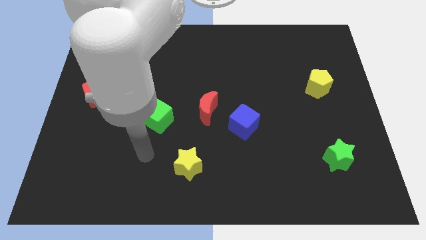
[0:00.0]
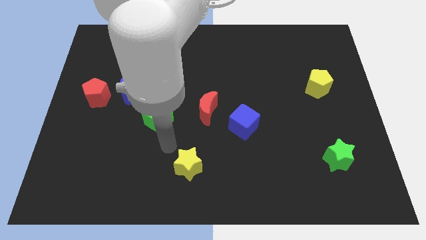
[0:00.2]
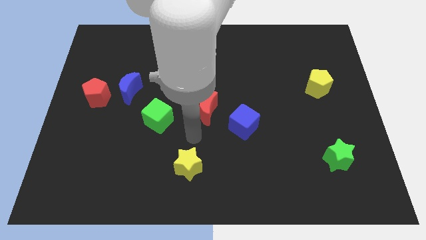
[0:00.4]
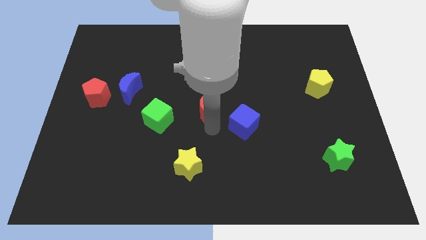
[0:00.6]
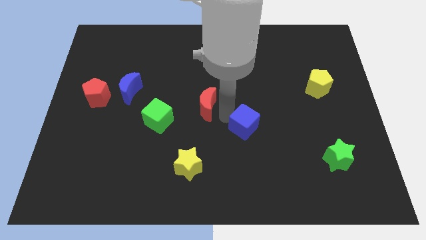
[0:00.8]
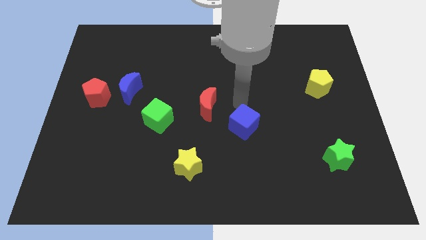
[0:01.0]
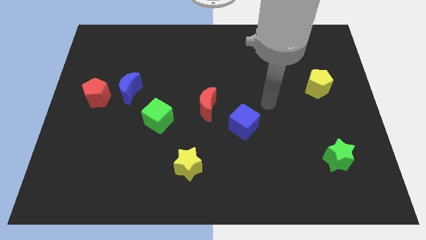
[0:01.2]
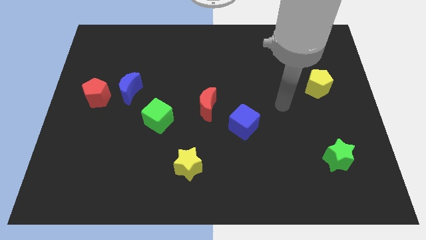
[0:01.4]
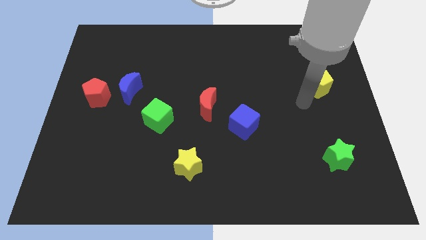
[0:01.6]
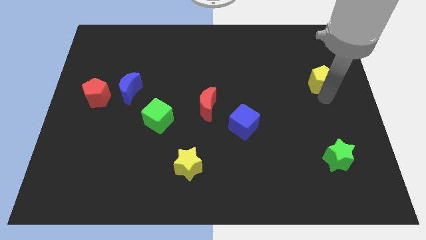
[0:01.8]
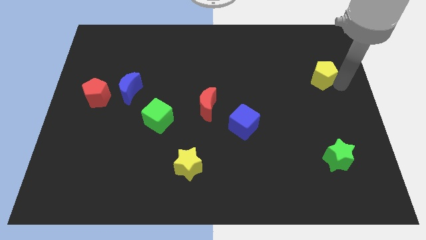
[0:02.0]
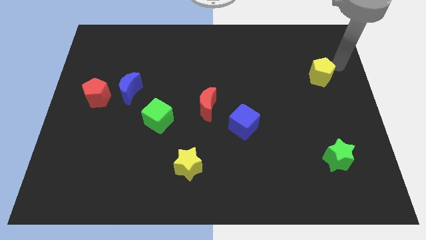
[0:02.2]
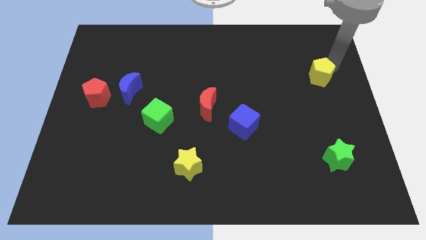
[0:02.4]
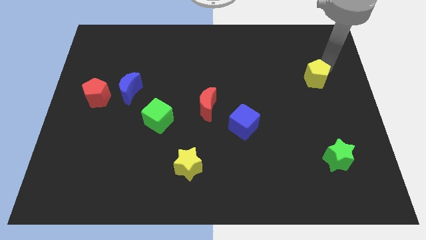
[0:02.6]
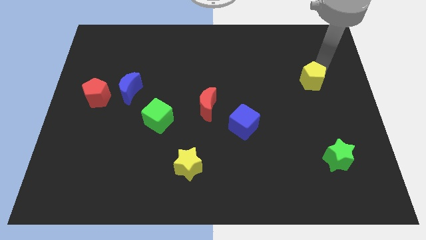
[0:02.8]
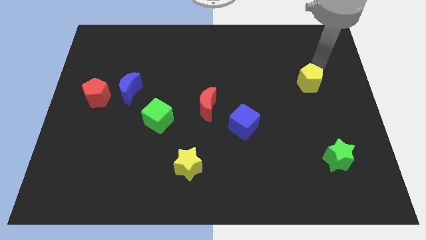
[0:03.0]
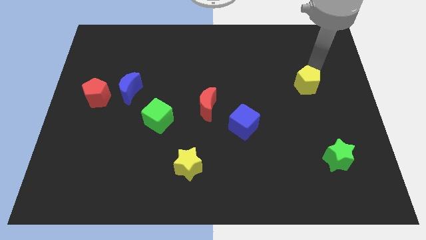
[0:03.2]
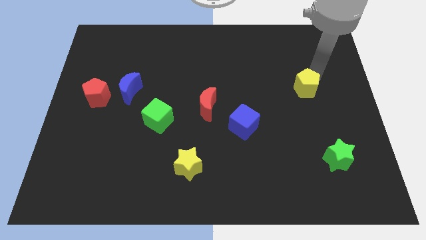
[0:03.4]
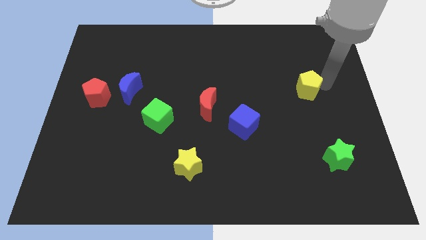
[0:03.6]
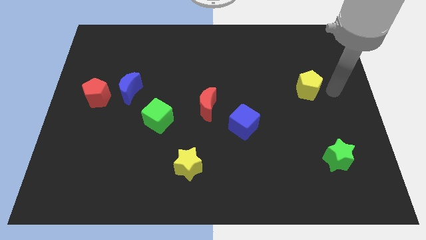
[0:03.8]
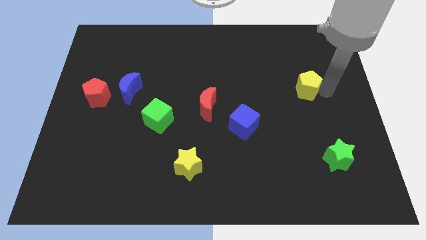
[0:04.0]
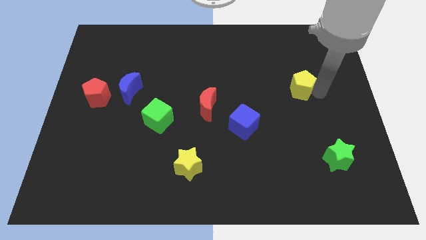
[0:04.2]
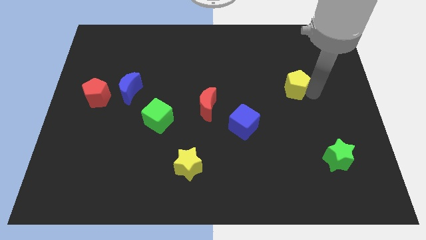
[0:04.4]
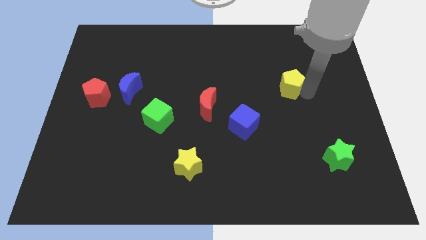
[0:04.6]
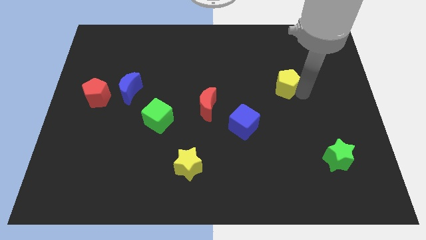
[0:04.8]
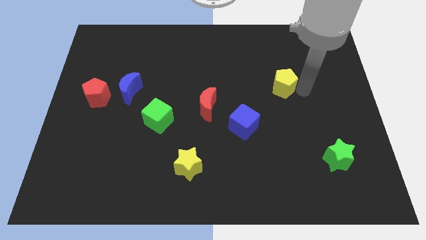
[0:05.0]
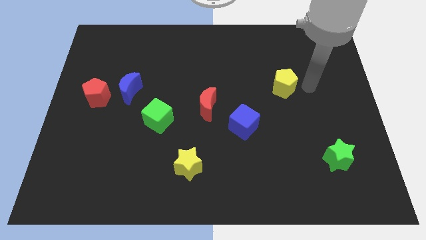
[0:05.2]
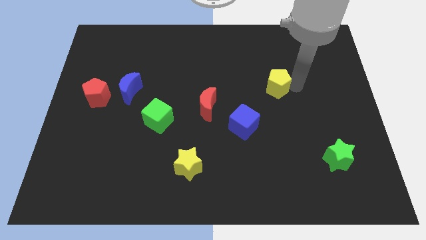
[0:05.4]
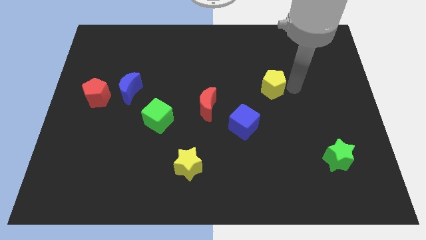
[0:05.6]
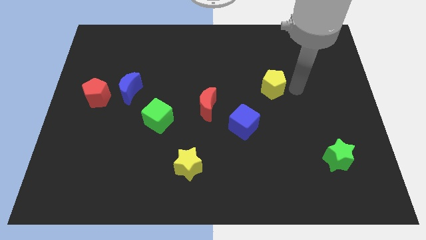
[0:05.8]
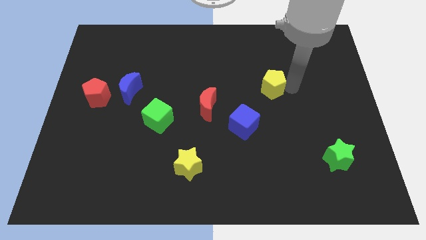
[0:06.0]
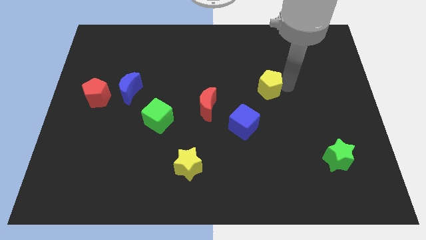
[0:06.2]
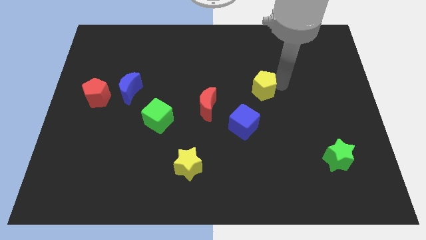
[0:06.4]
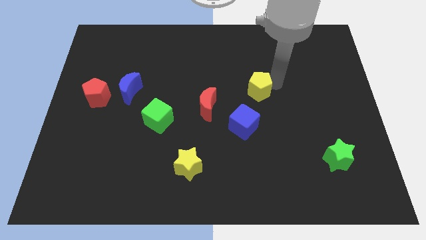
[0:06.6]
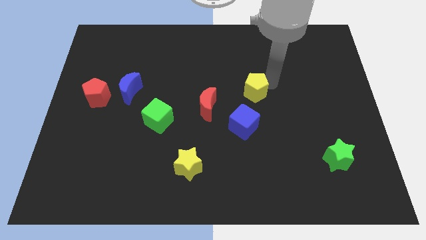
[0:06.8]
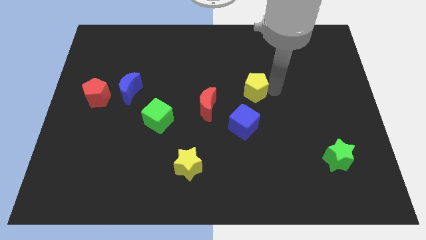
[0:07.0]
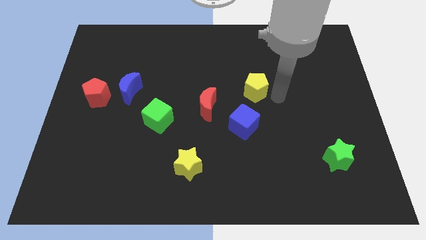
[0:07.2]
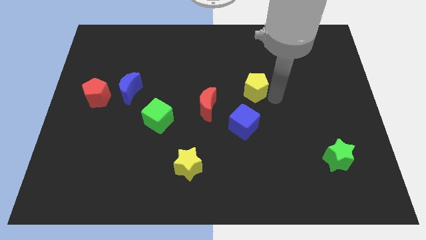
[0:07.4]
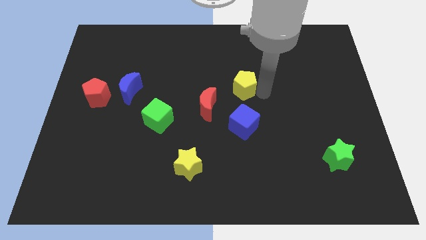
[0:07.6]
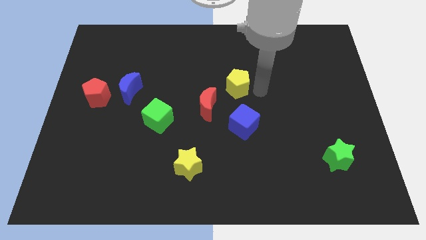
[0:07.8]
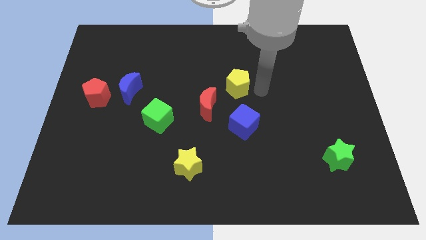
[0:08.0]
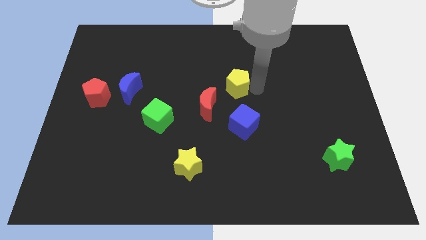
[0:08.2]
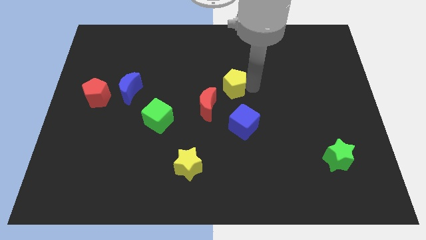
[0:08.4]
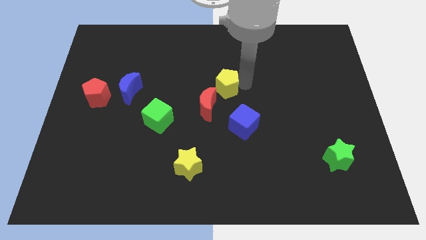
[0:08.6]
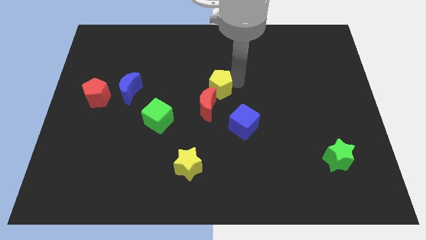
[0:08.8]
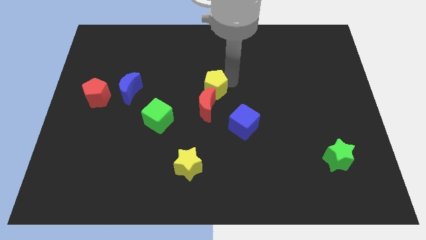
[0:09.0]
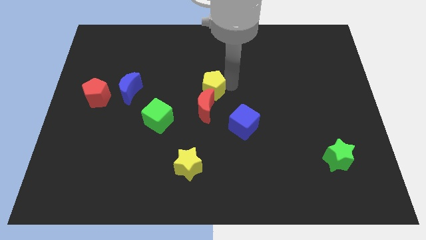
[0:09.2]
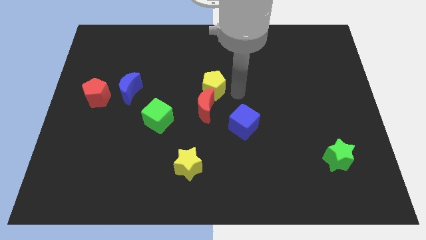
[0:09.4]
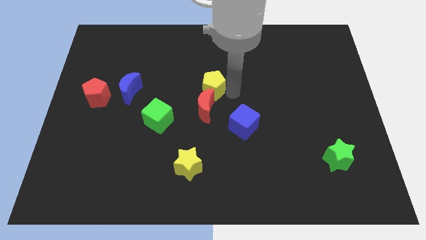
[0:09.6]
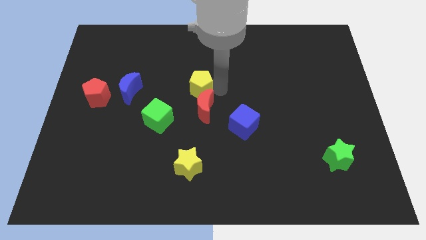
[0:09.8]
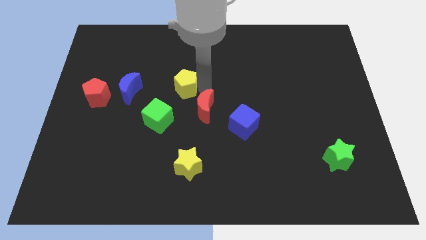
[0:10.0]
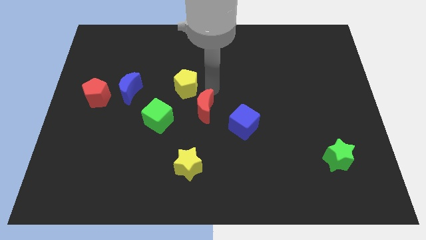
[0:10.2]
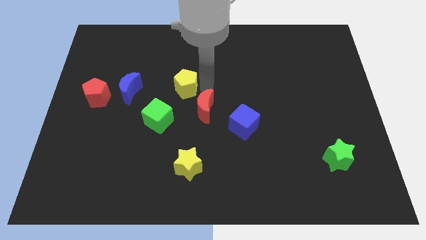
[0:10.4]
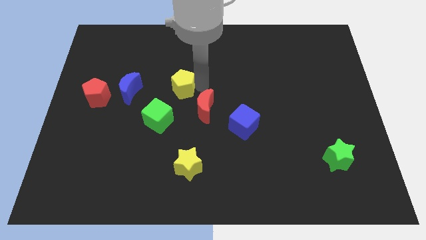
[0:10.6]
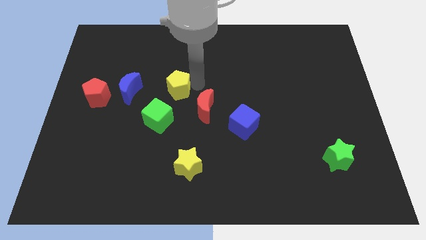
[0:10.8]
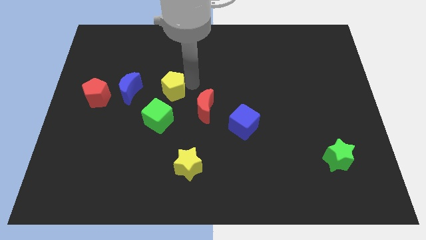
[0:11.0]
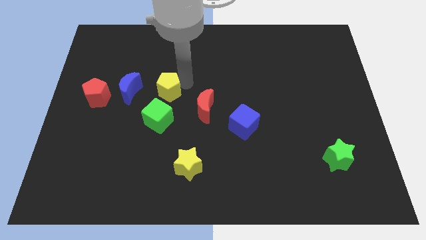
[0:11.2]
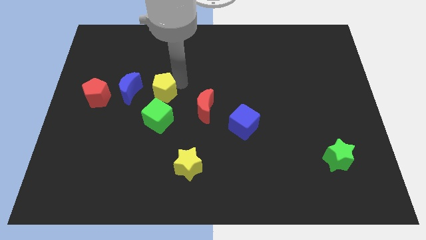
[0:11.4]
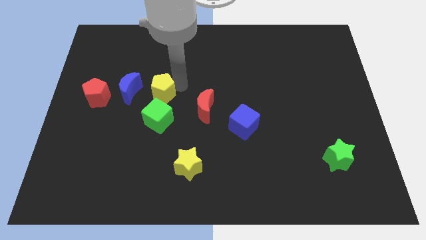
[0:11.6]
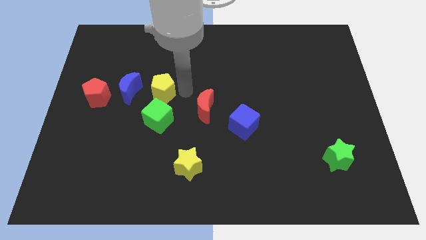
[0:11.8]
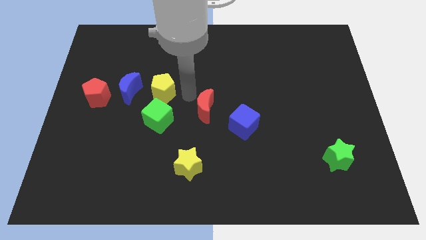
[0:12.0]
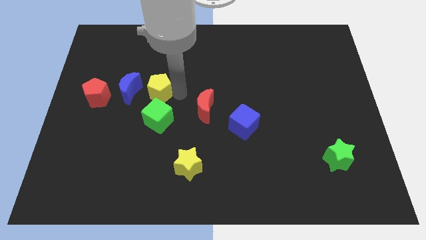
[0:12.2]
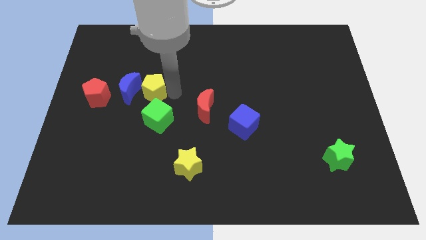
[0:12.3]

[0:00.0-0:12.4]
push the yellow pentagon to the blue moon
